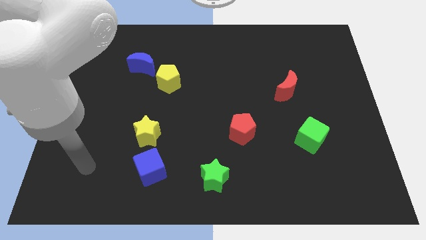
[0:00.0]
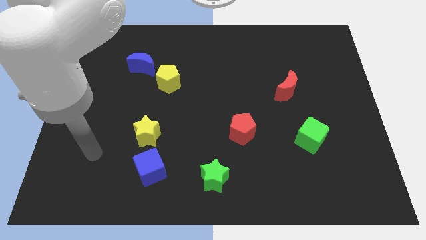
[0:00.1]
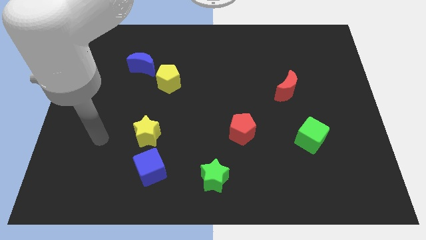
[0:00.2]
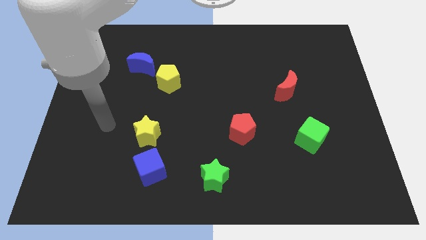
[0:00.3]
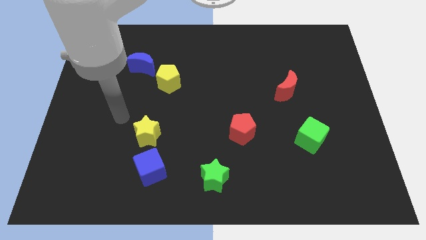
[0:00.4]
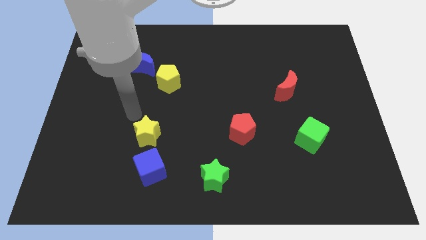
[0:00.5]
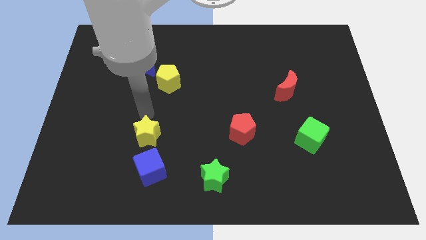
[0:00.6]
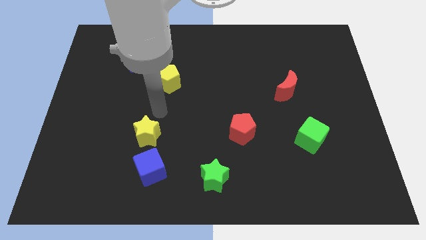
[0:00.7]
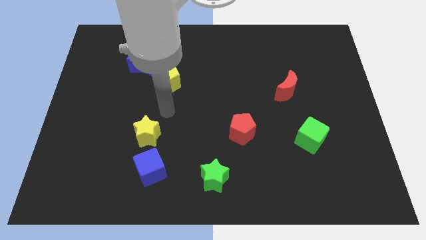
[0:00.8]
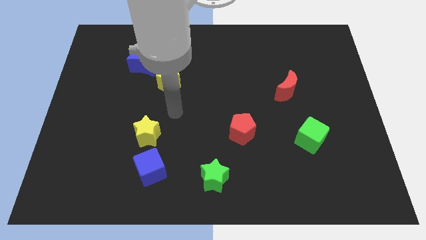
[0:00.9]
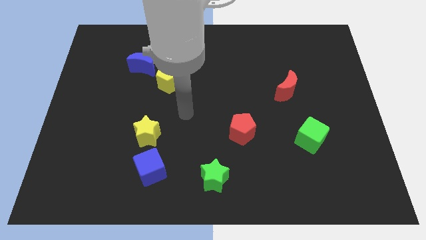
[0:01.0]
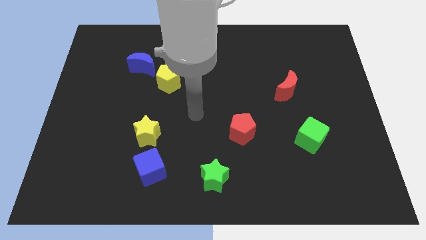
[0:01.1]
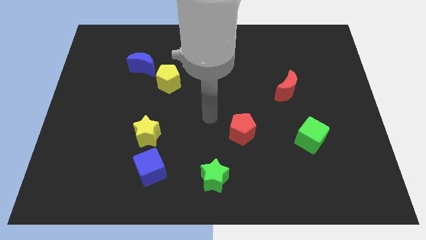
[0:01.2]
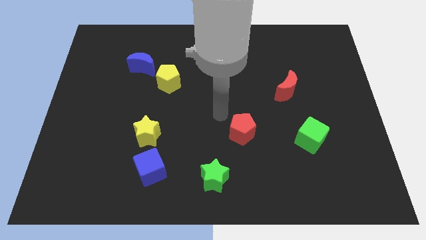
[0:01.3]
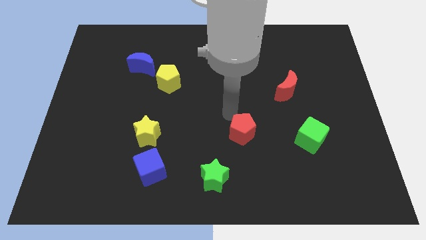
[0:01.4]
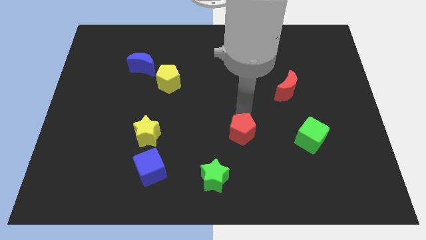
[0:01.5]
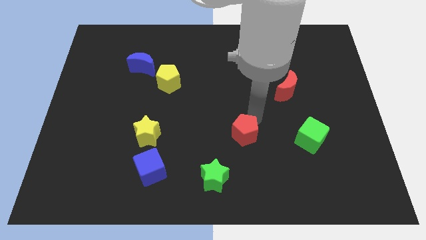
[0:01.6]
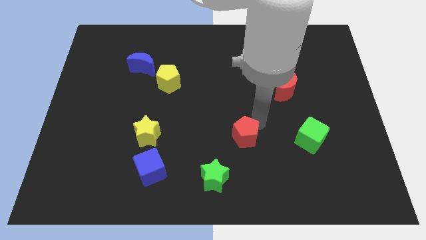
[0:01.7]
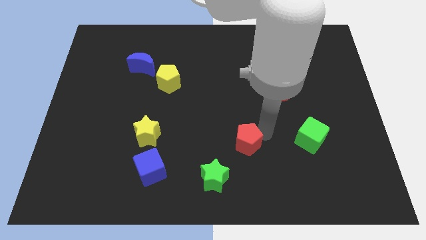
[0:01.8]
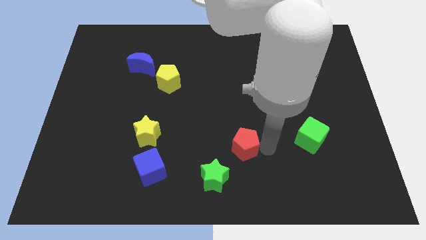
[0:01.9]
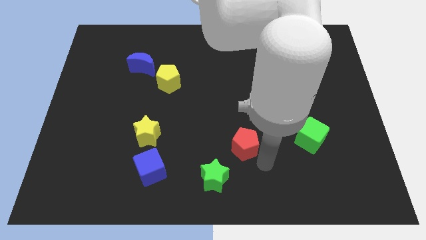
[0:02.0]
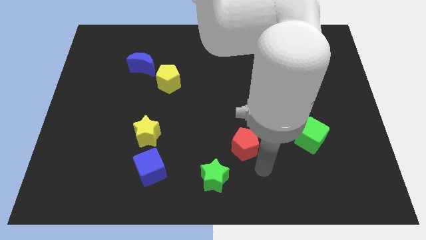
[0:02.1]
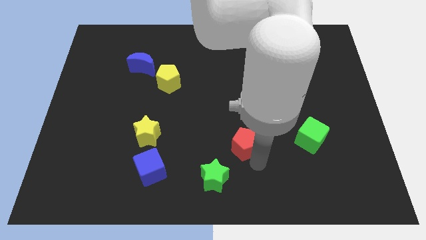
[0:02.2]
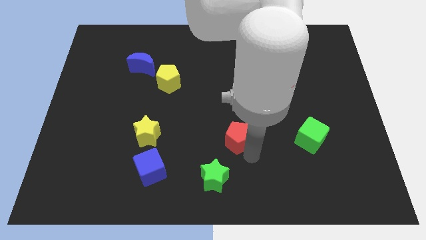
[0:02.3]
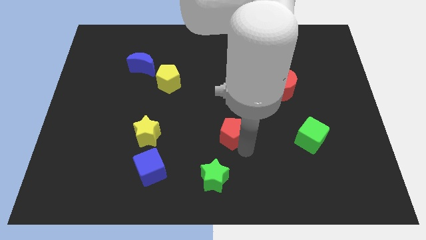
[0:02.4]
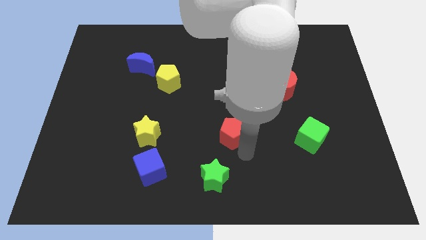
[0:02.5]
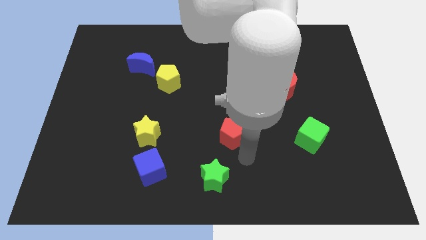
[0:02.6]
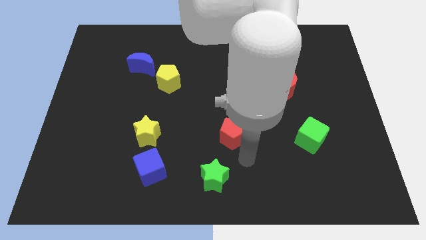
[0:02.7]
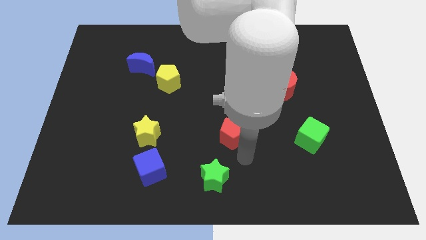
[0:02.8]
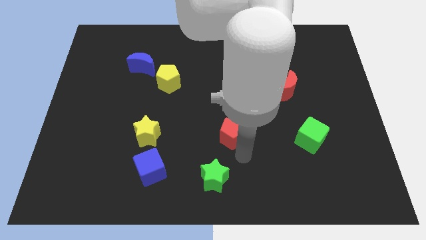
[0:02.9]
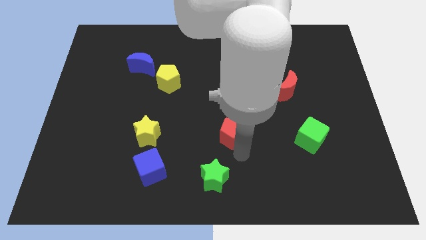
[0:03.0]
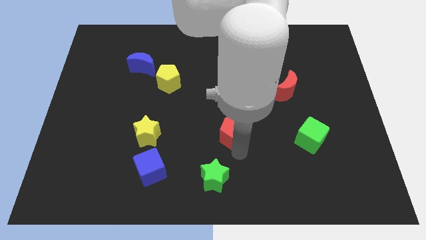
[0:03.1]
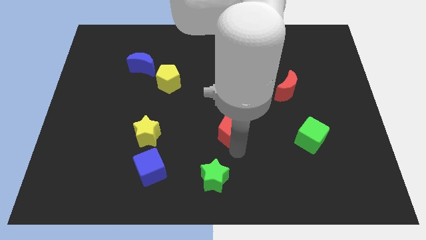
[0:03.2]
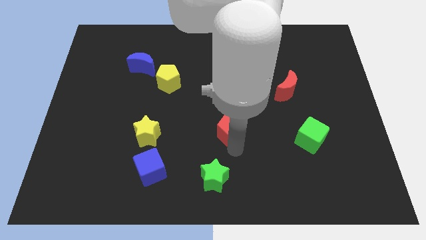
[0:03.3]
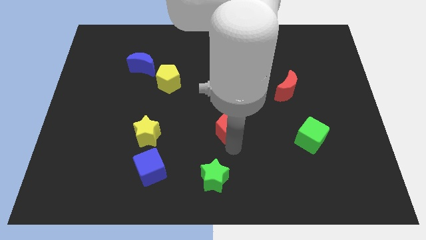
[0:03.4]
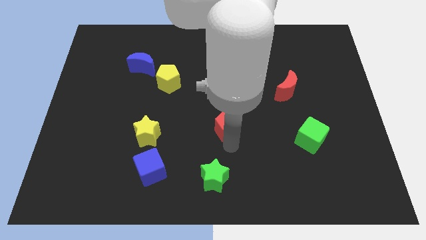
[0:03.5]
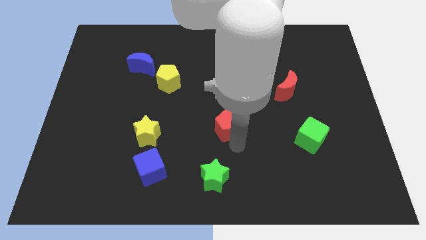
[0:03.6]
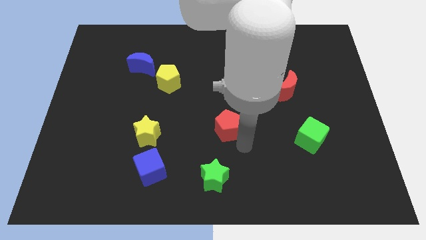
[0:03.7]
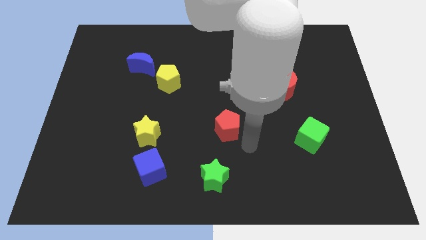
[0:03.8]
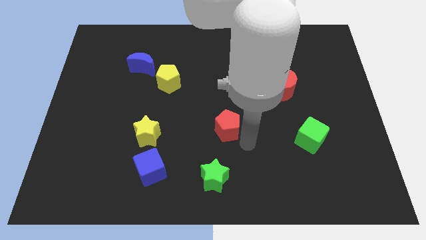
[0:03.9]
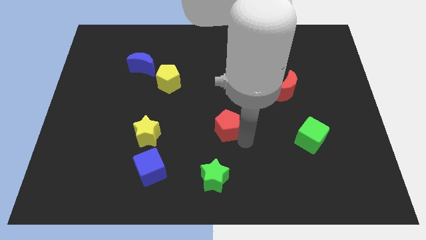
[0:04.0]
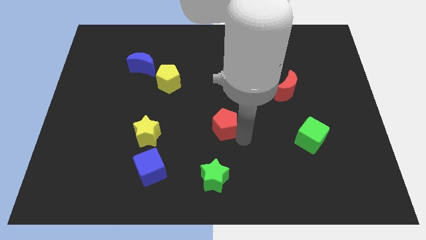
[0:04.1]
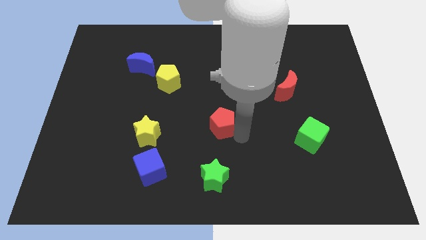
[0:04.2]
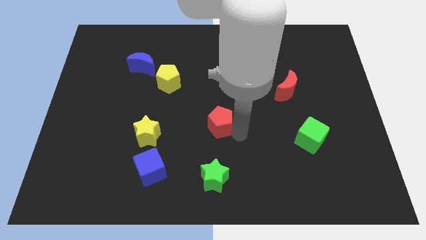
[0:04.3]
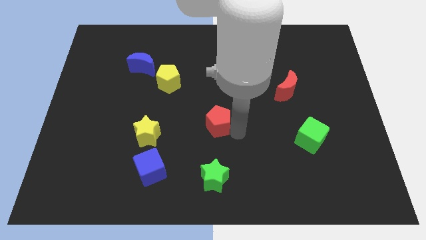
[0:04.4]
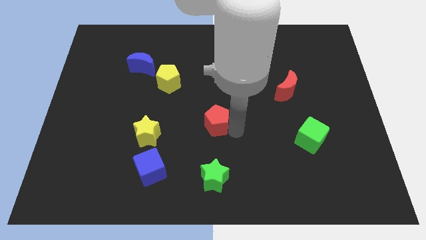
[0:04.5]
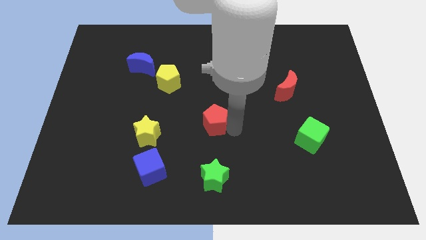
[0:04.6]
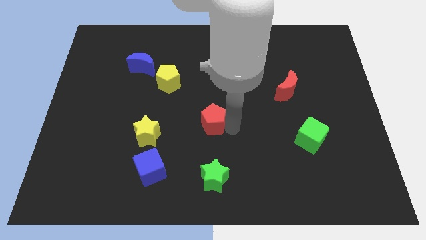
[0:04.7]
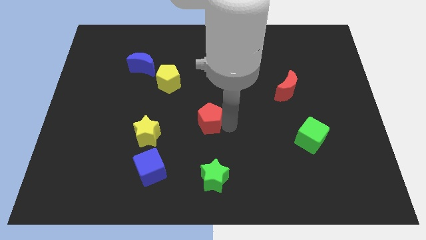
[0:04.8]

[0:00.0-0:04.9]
slightly move the red pentagon diagonally upwards and left

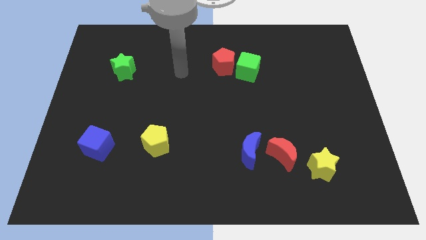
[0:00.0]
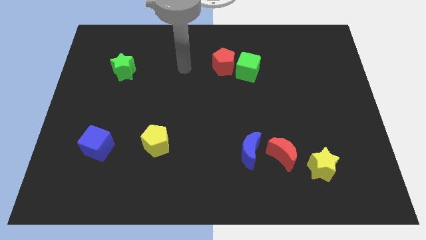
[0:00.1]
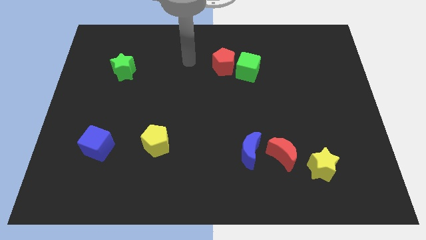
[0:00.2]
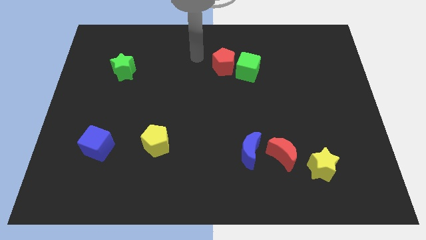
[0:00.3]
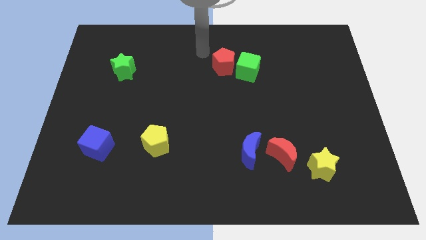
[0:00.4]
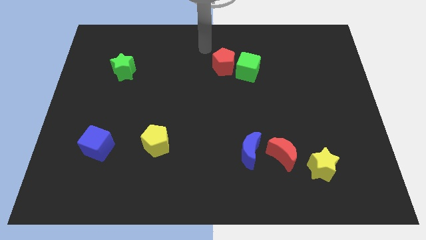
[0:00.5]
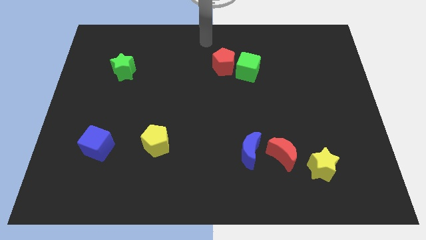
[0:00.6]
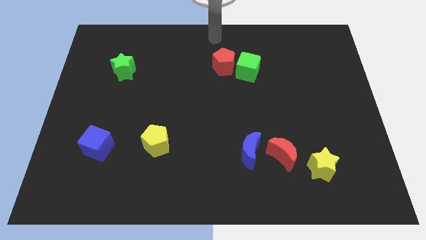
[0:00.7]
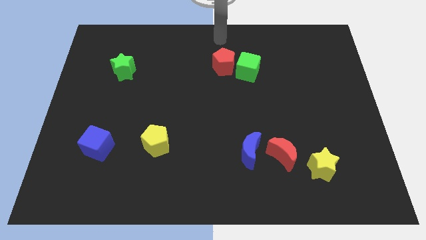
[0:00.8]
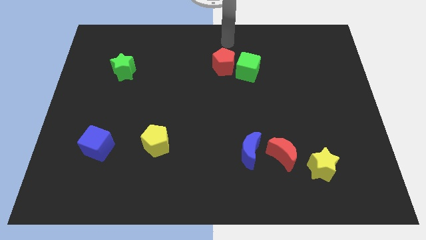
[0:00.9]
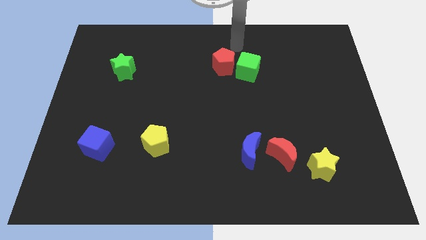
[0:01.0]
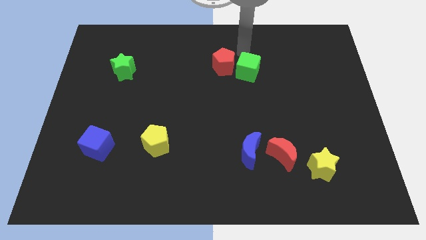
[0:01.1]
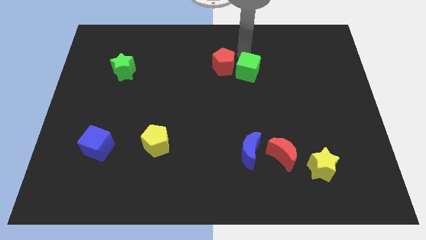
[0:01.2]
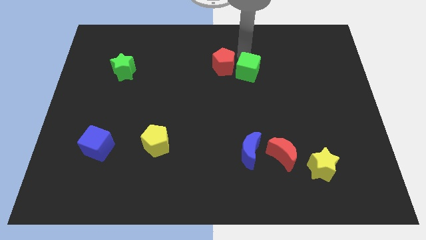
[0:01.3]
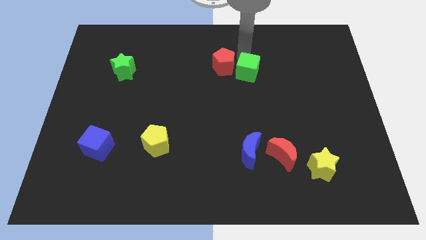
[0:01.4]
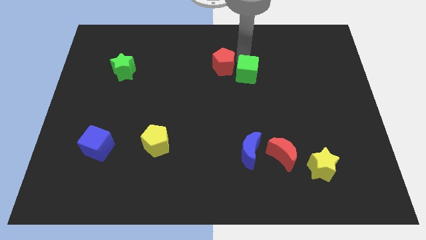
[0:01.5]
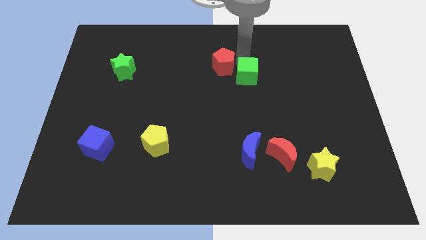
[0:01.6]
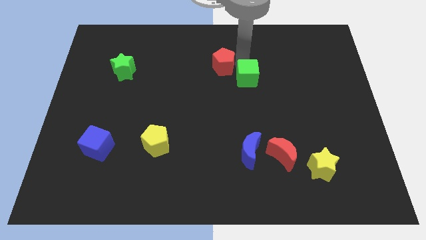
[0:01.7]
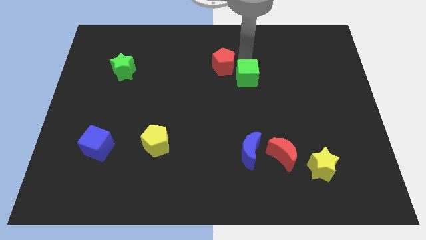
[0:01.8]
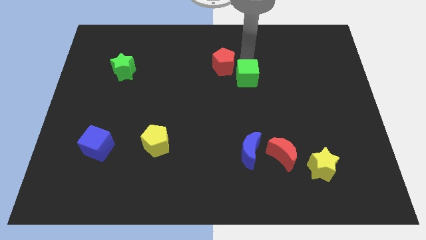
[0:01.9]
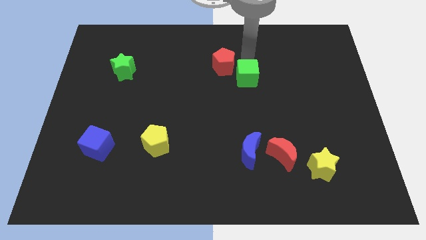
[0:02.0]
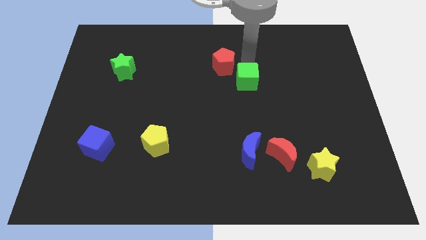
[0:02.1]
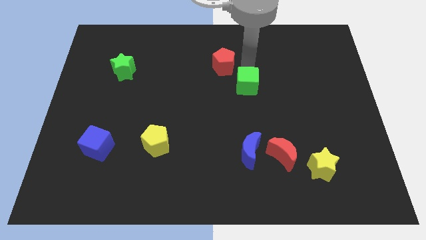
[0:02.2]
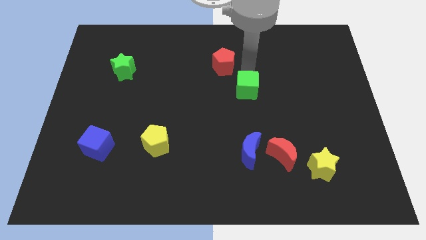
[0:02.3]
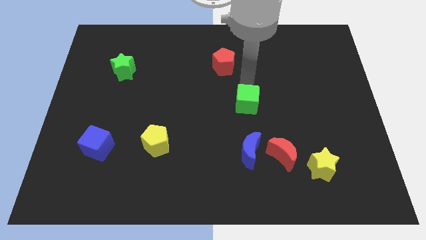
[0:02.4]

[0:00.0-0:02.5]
push the green cube a bit downwards

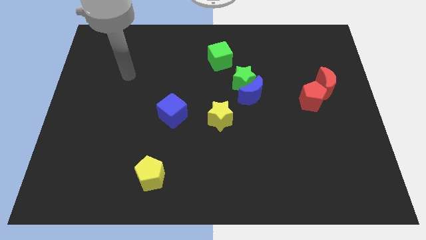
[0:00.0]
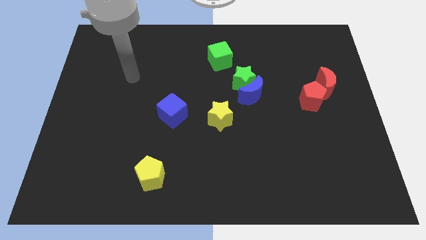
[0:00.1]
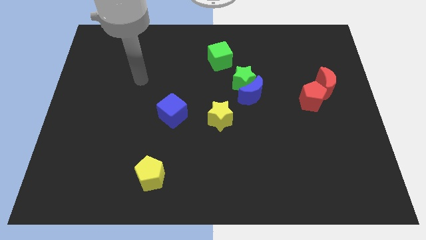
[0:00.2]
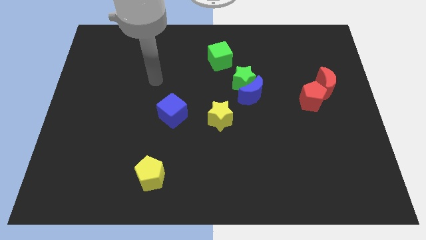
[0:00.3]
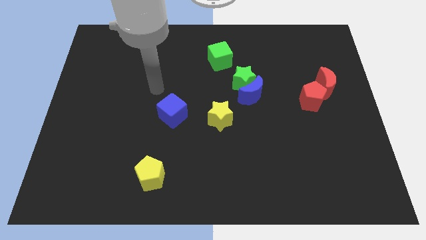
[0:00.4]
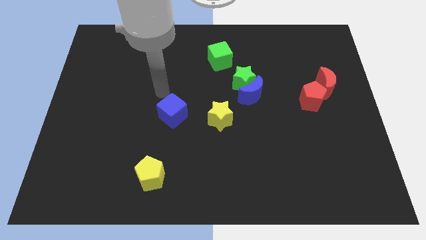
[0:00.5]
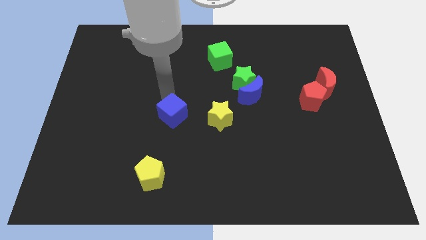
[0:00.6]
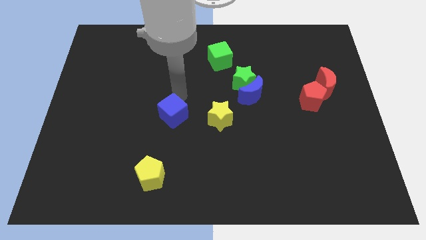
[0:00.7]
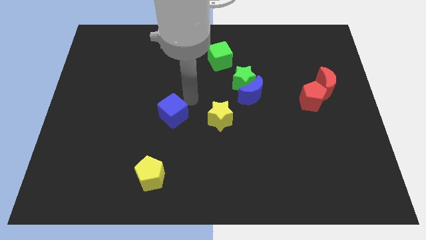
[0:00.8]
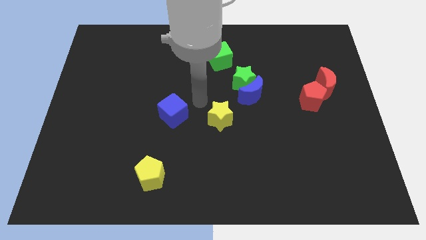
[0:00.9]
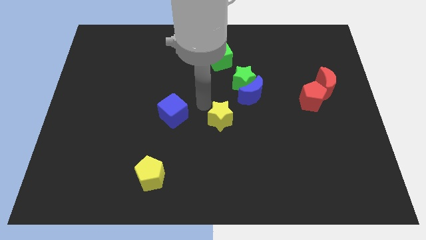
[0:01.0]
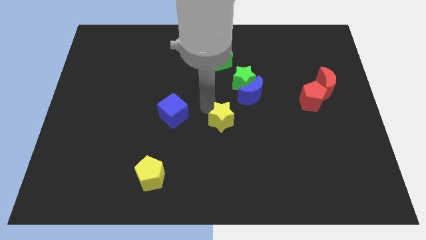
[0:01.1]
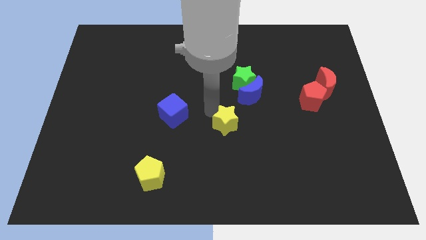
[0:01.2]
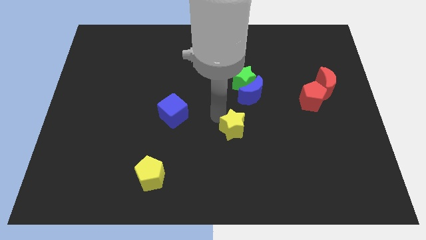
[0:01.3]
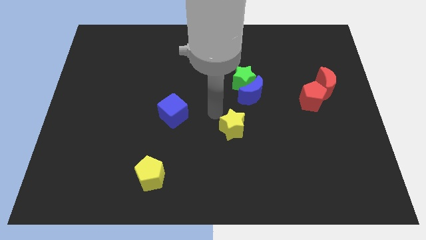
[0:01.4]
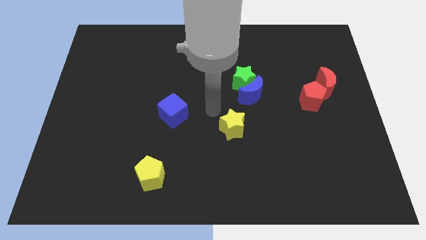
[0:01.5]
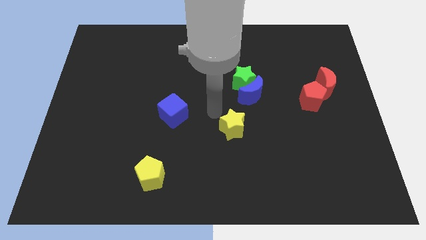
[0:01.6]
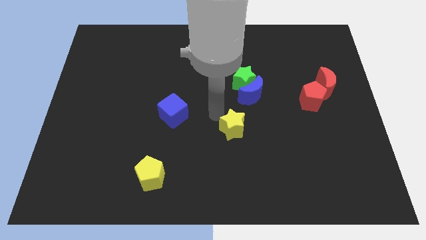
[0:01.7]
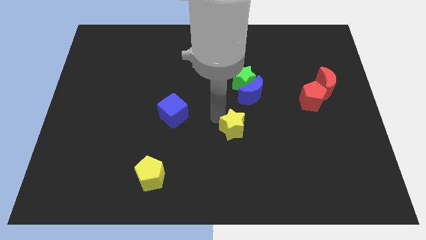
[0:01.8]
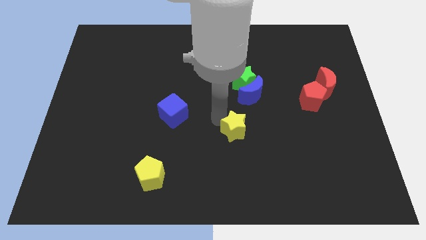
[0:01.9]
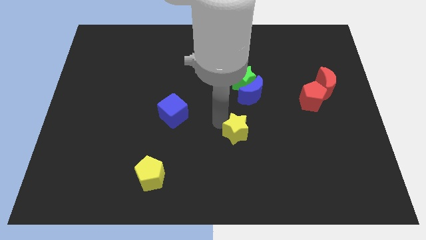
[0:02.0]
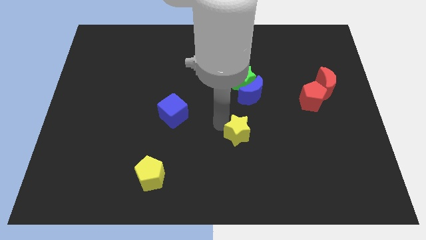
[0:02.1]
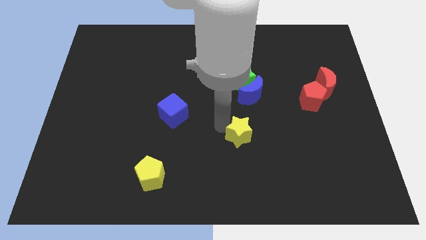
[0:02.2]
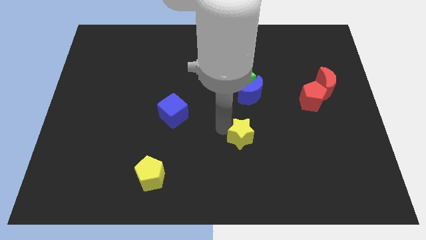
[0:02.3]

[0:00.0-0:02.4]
slide the yellow star a bit downwards and then to the right
